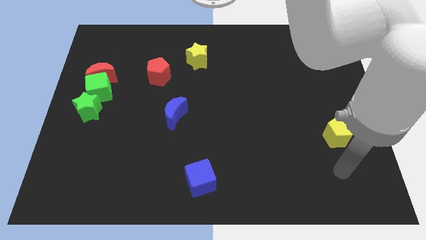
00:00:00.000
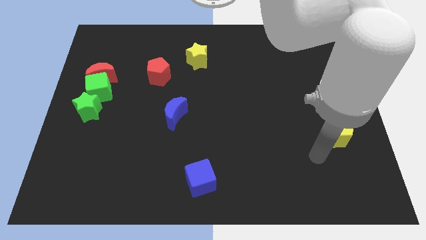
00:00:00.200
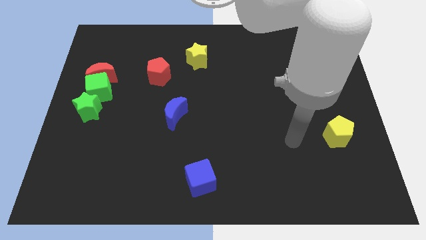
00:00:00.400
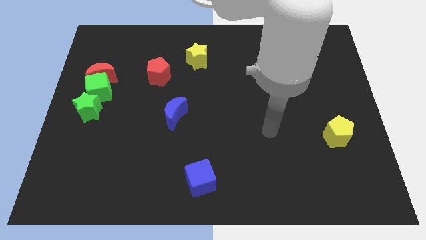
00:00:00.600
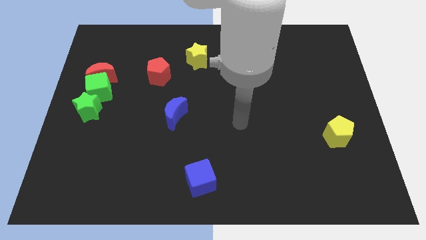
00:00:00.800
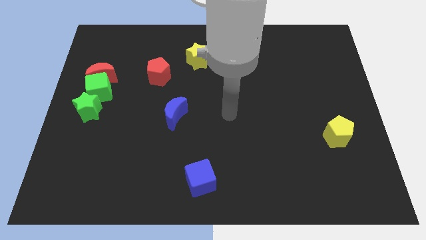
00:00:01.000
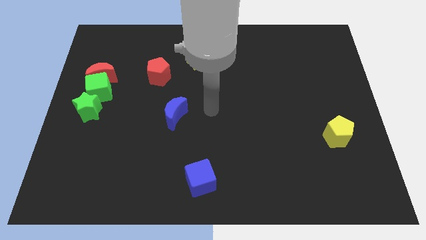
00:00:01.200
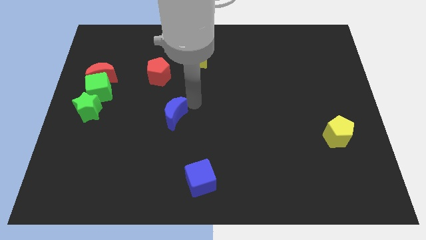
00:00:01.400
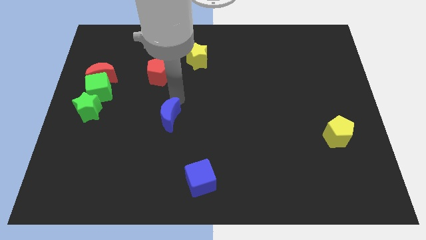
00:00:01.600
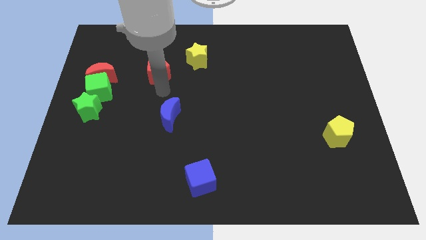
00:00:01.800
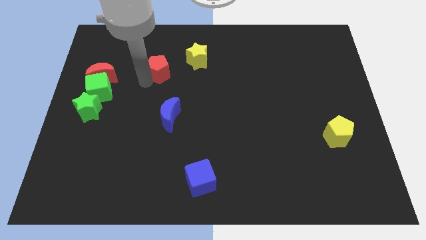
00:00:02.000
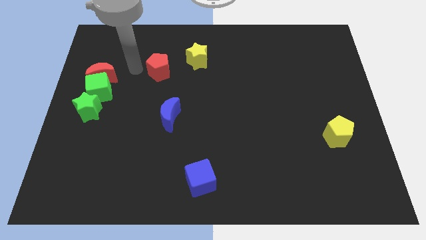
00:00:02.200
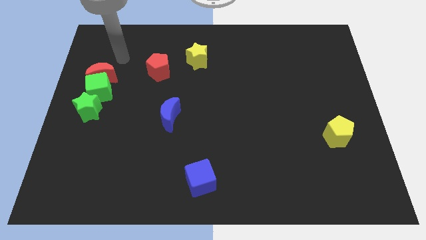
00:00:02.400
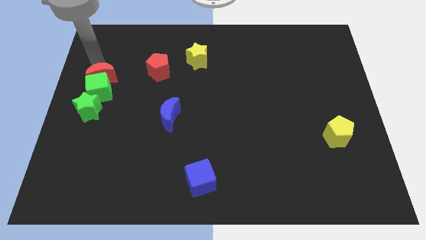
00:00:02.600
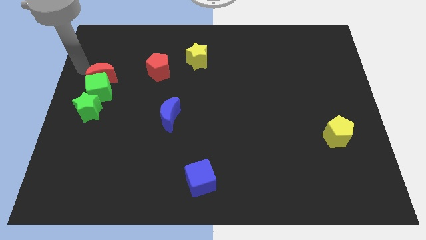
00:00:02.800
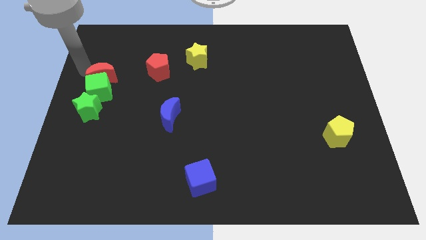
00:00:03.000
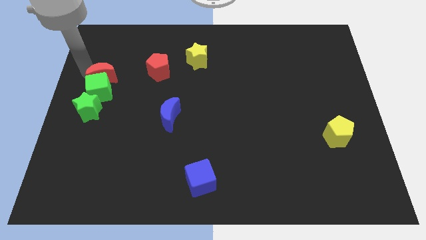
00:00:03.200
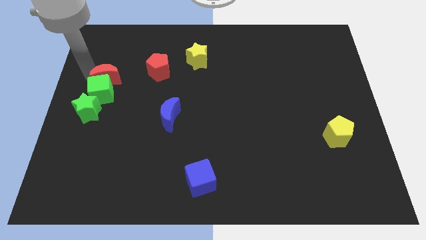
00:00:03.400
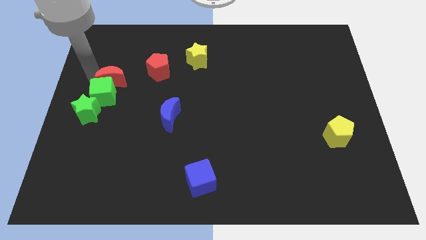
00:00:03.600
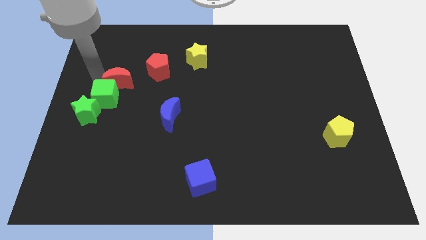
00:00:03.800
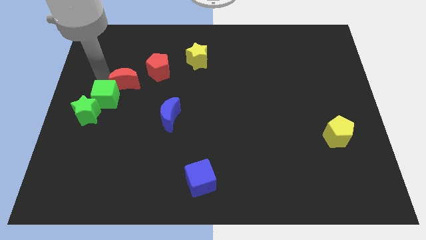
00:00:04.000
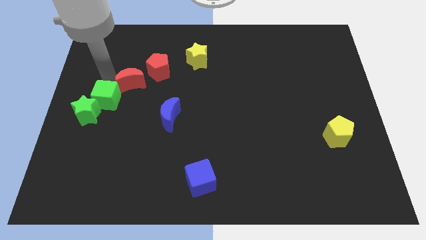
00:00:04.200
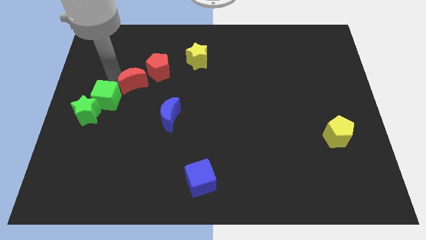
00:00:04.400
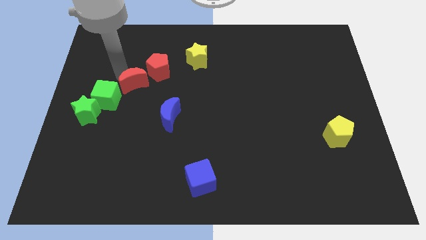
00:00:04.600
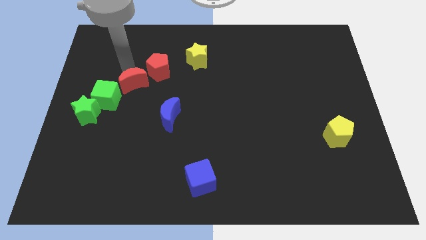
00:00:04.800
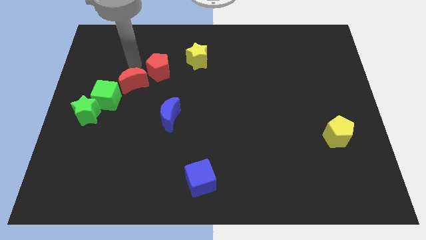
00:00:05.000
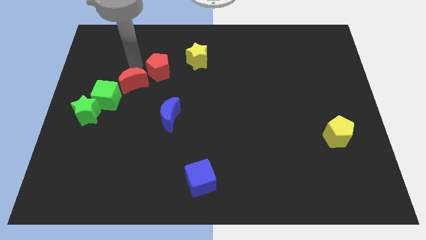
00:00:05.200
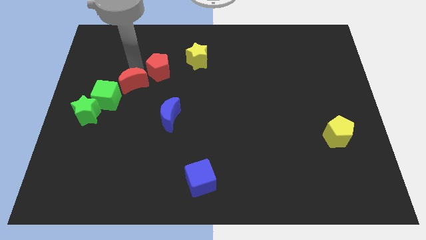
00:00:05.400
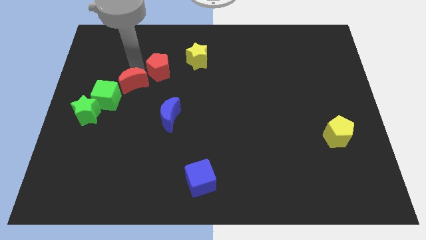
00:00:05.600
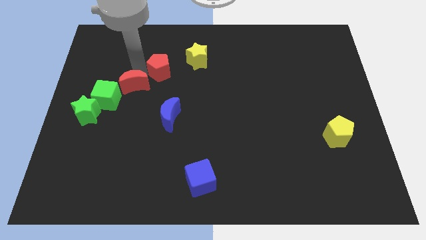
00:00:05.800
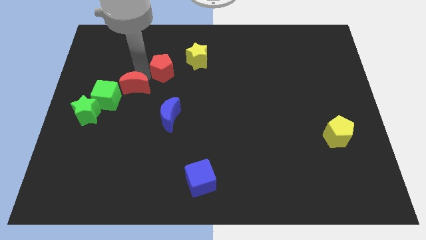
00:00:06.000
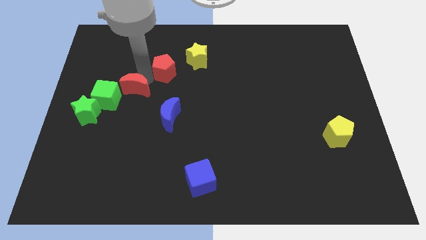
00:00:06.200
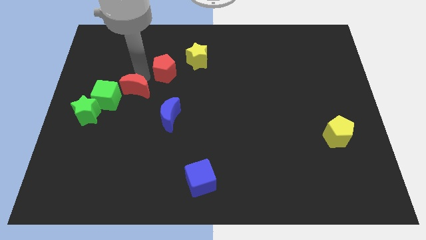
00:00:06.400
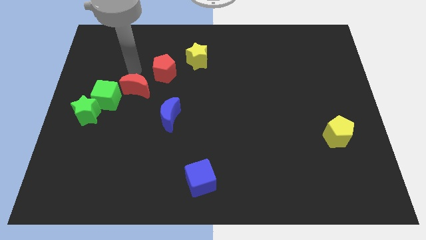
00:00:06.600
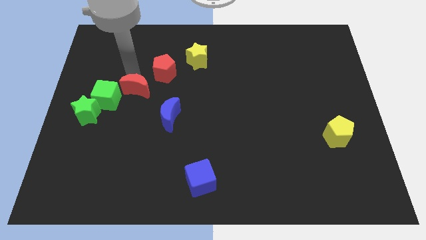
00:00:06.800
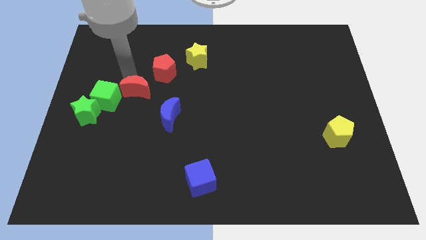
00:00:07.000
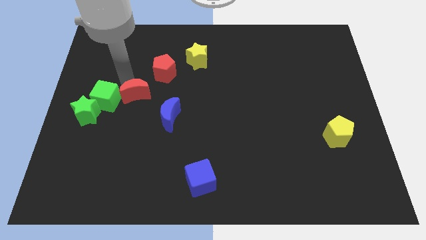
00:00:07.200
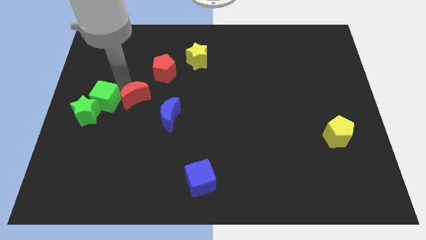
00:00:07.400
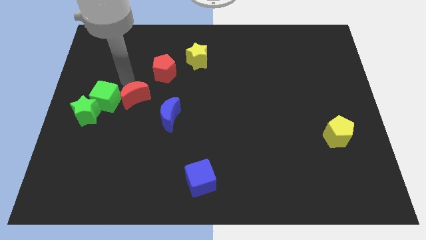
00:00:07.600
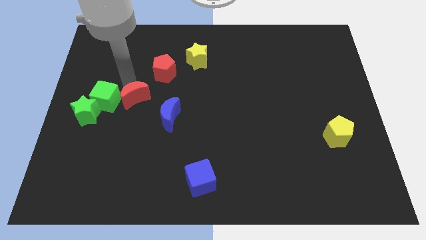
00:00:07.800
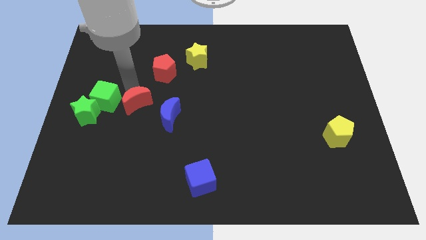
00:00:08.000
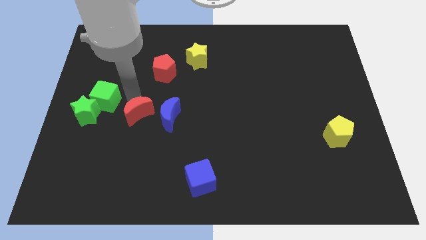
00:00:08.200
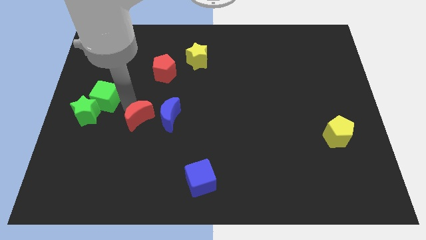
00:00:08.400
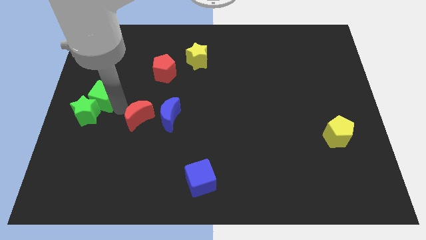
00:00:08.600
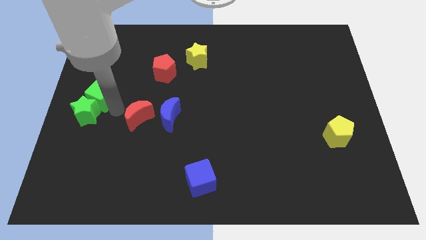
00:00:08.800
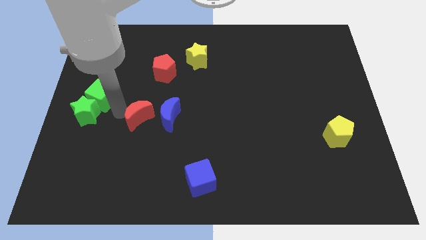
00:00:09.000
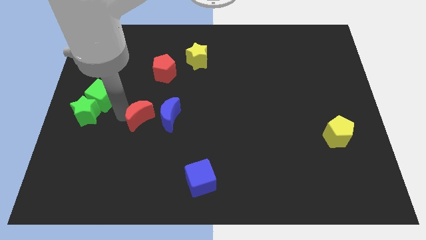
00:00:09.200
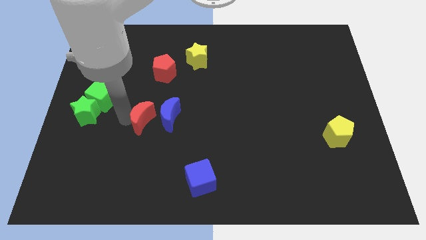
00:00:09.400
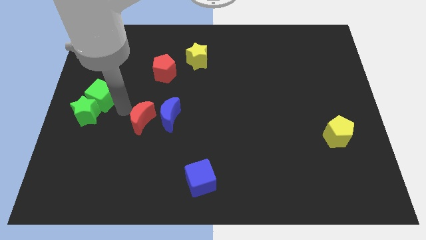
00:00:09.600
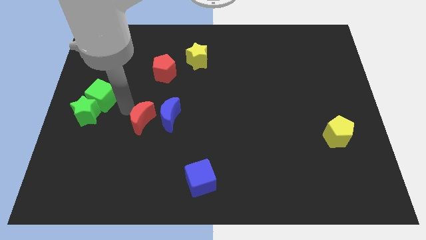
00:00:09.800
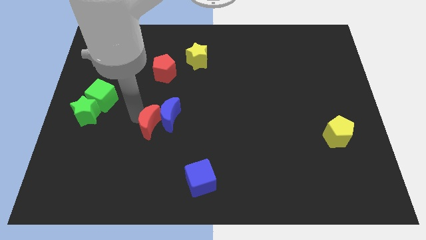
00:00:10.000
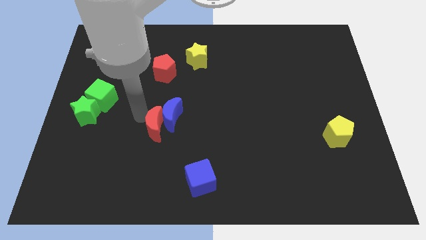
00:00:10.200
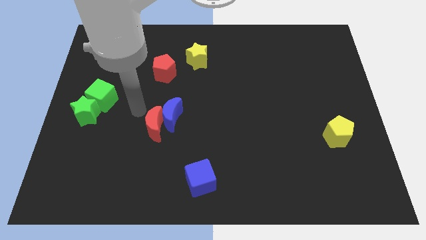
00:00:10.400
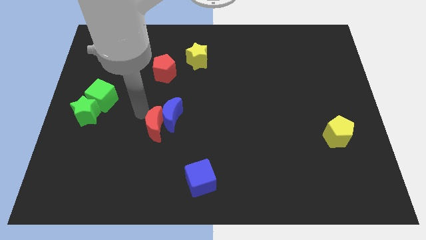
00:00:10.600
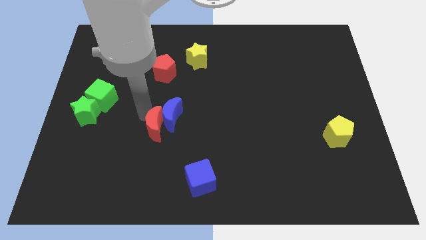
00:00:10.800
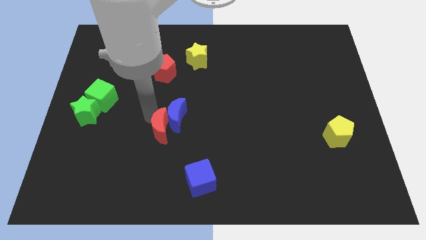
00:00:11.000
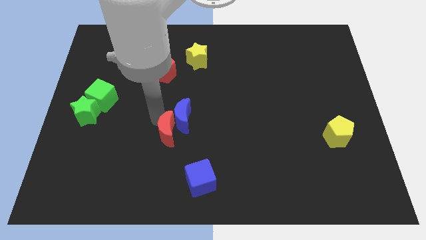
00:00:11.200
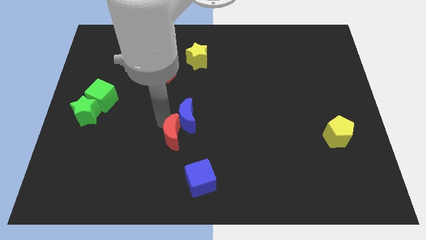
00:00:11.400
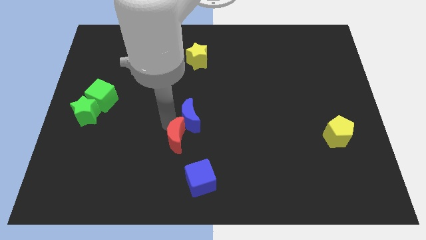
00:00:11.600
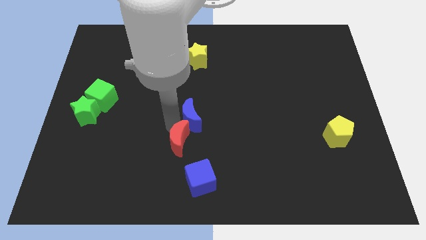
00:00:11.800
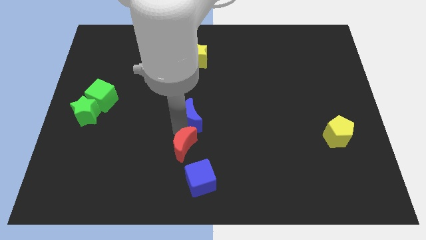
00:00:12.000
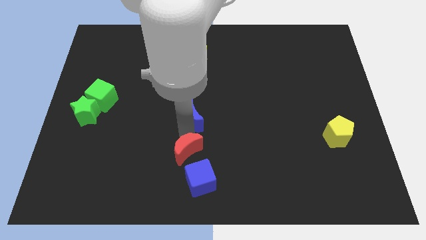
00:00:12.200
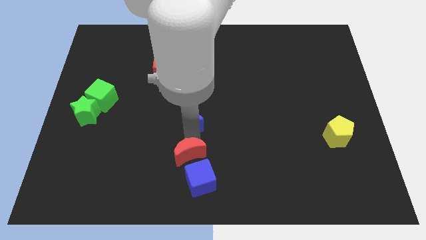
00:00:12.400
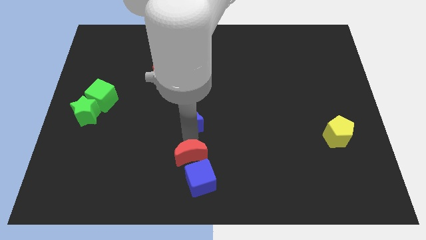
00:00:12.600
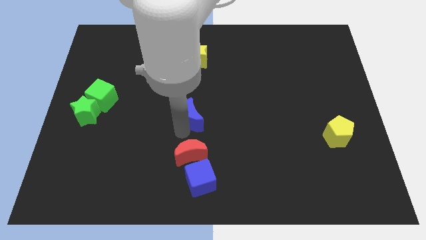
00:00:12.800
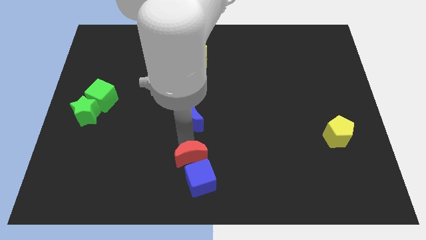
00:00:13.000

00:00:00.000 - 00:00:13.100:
put the red moon next to the blue cube

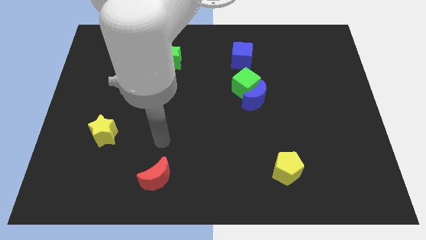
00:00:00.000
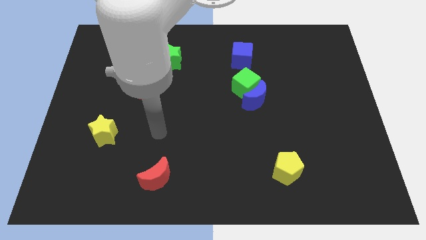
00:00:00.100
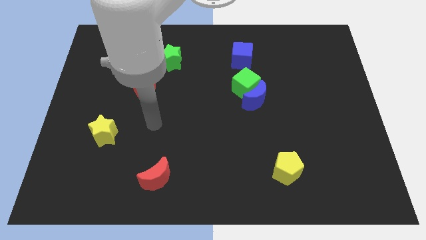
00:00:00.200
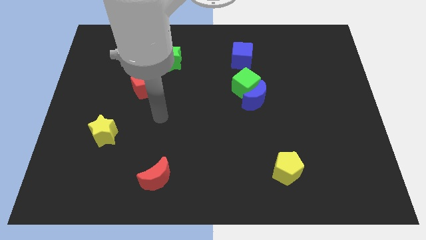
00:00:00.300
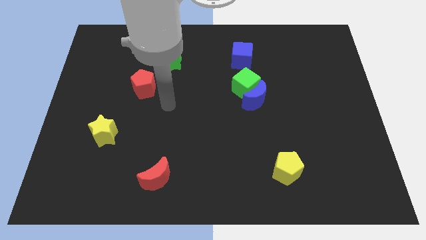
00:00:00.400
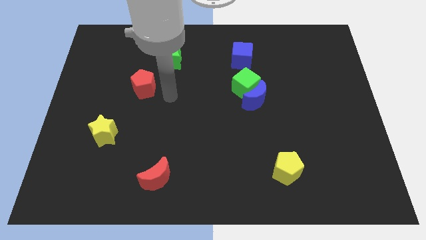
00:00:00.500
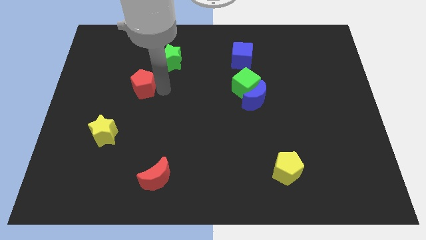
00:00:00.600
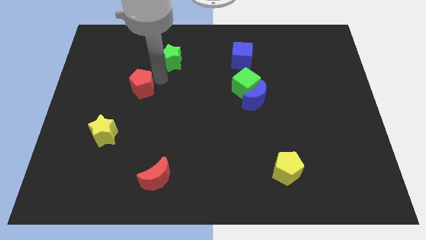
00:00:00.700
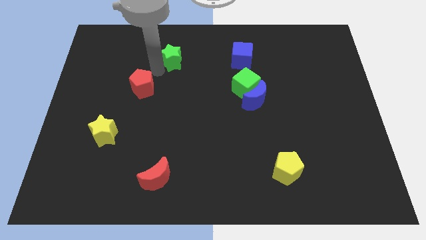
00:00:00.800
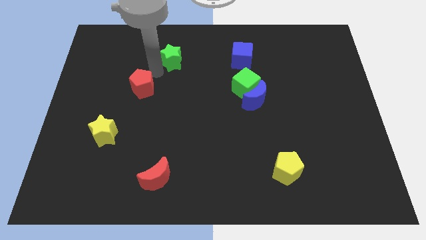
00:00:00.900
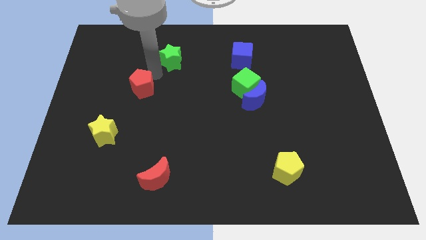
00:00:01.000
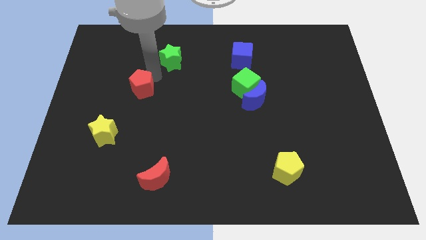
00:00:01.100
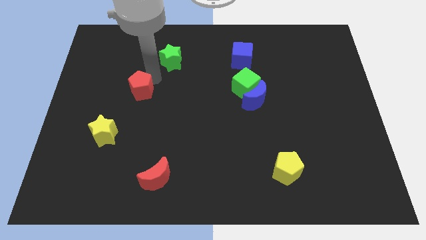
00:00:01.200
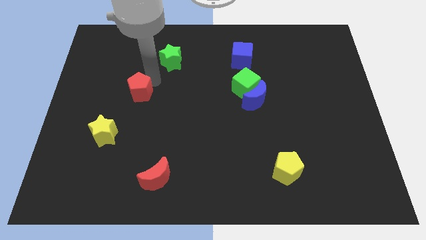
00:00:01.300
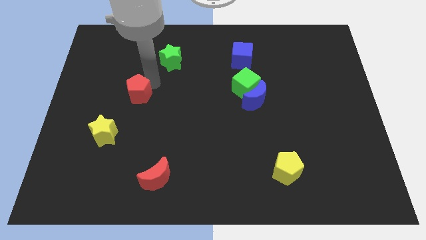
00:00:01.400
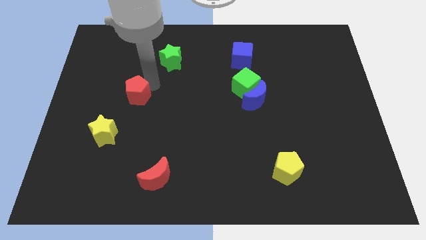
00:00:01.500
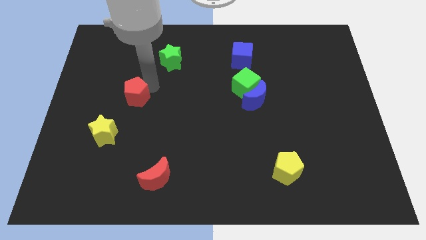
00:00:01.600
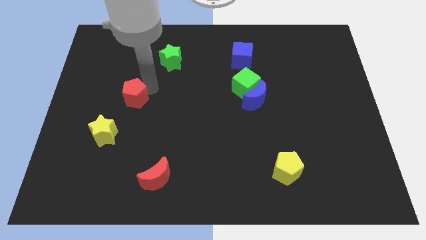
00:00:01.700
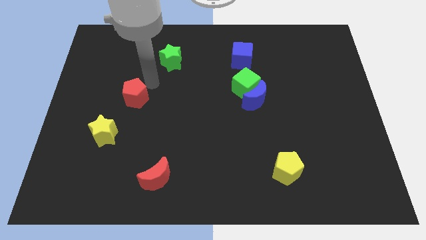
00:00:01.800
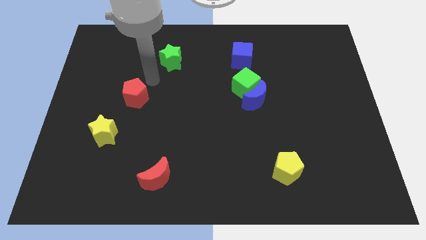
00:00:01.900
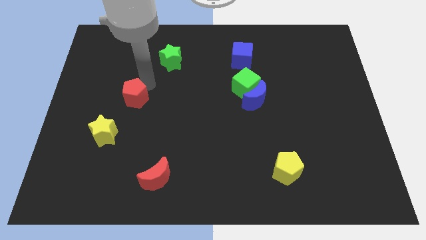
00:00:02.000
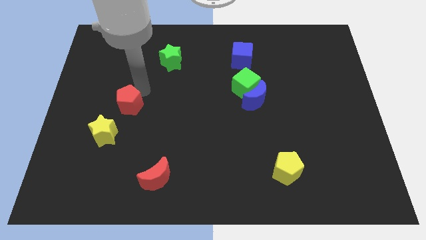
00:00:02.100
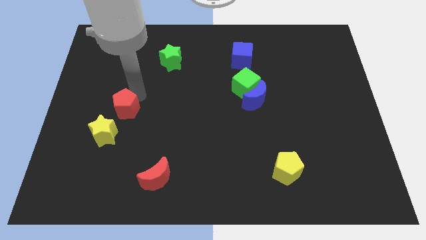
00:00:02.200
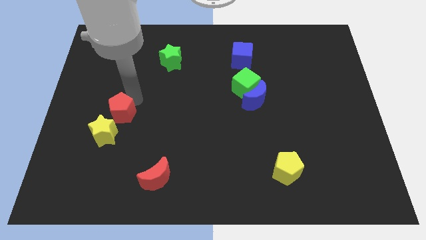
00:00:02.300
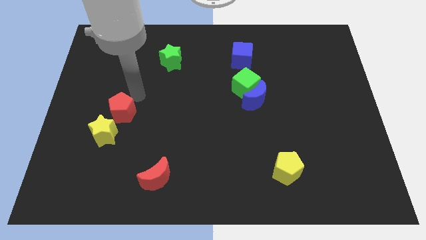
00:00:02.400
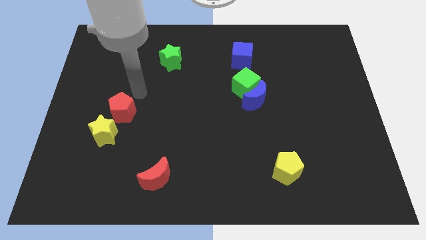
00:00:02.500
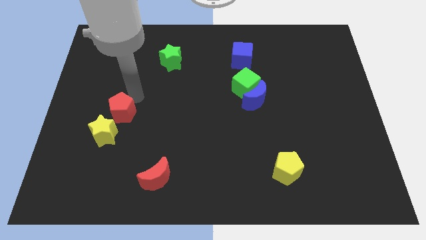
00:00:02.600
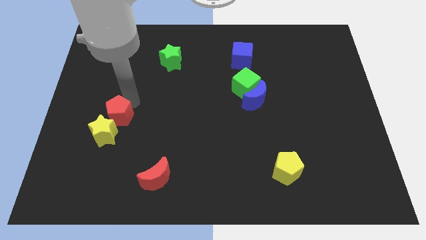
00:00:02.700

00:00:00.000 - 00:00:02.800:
move the red pentagon to the yellow star
